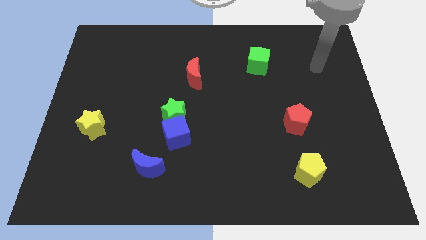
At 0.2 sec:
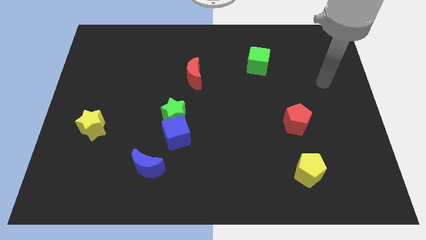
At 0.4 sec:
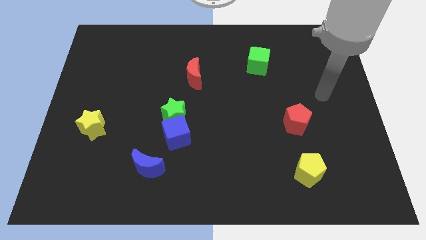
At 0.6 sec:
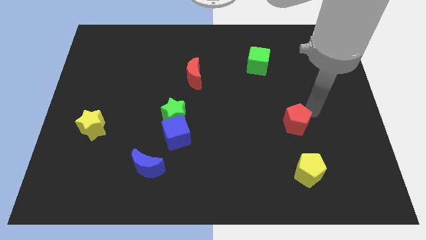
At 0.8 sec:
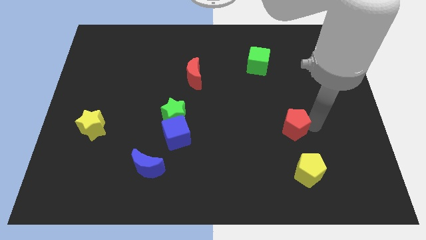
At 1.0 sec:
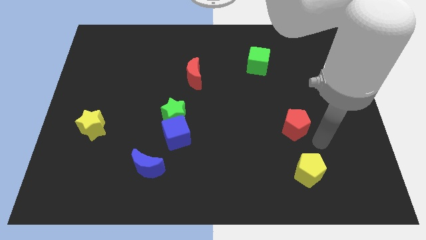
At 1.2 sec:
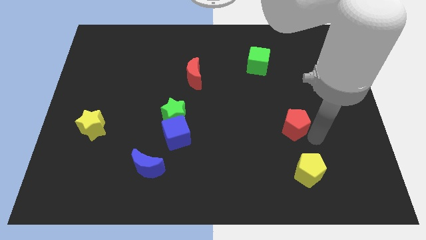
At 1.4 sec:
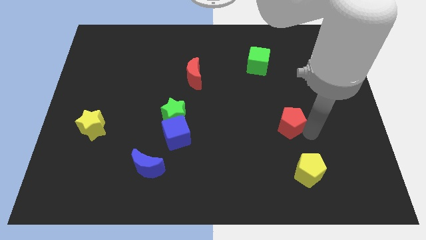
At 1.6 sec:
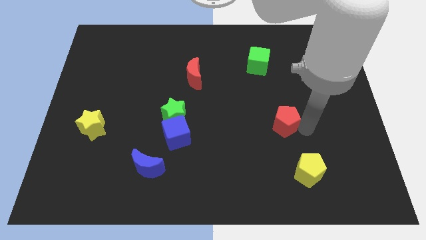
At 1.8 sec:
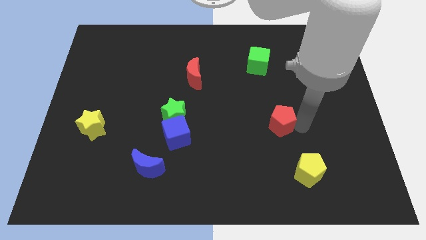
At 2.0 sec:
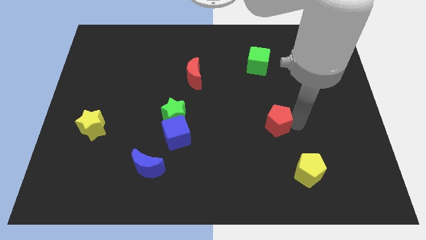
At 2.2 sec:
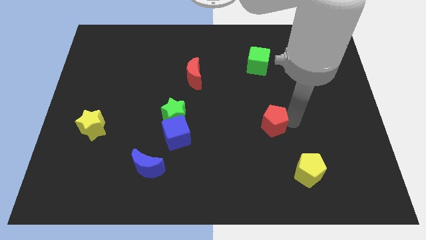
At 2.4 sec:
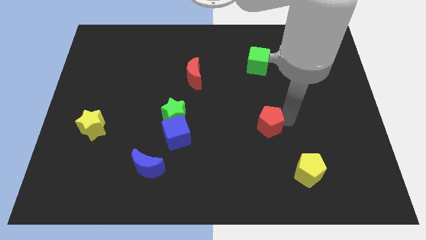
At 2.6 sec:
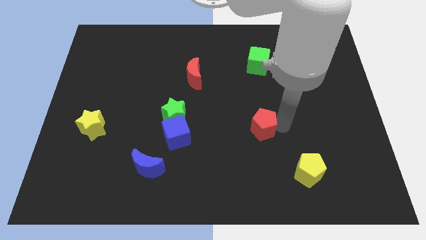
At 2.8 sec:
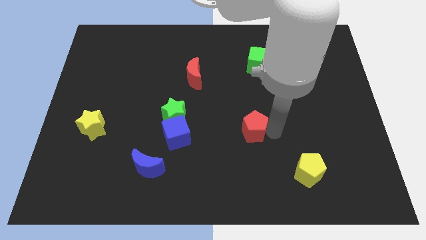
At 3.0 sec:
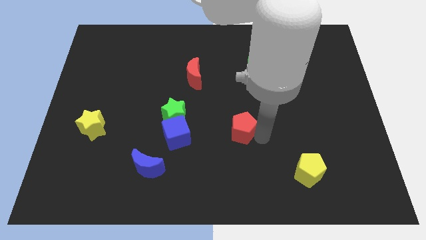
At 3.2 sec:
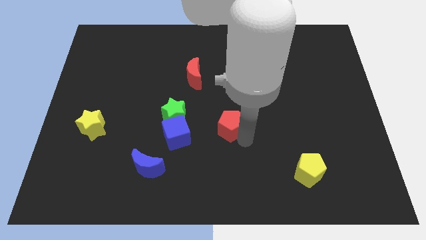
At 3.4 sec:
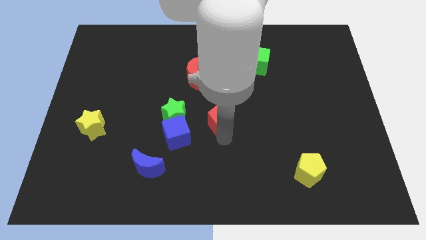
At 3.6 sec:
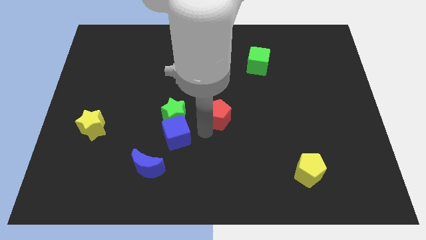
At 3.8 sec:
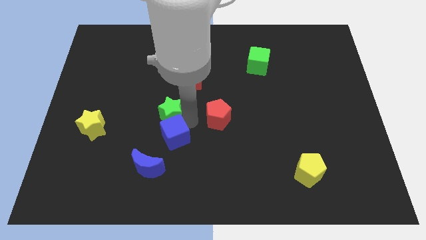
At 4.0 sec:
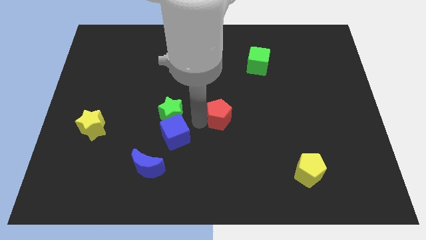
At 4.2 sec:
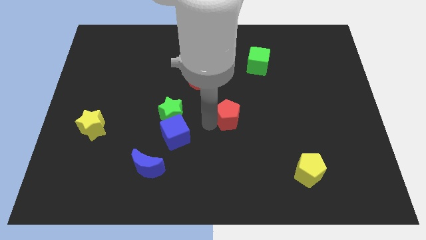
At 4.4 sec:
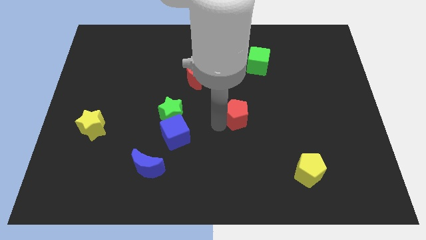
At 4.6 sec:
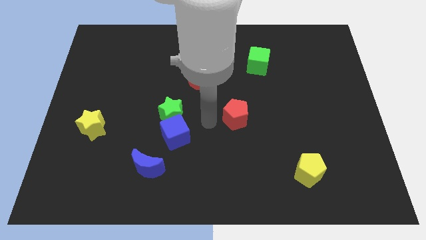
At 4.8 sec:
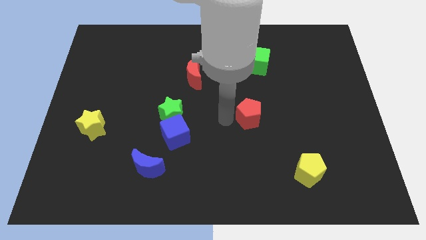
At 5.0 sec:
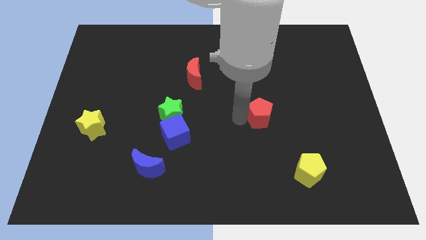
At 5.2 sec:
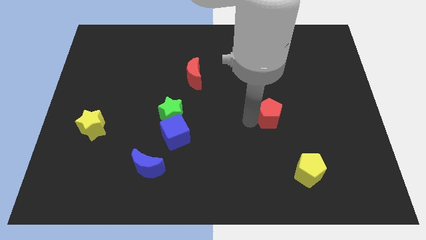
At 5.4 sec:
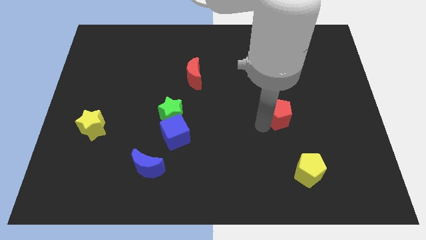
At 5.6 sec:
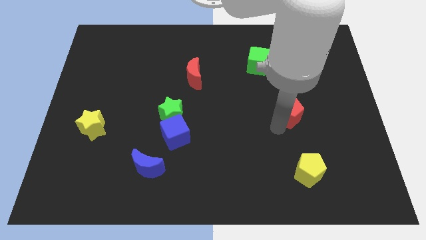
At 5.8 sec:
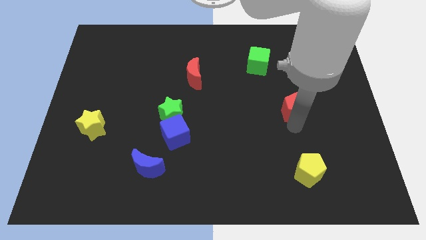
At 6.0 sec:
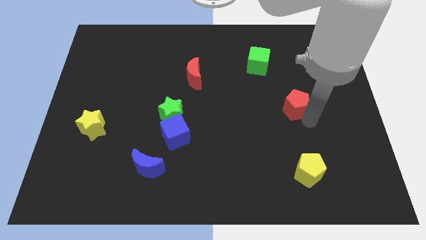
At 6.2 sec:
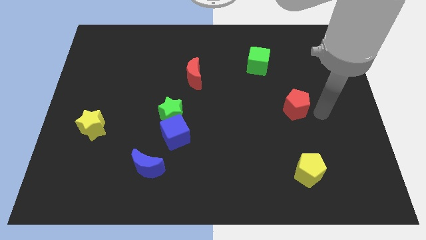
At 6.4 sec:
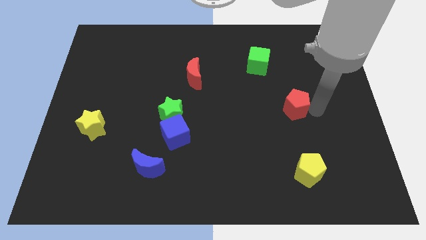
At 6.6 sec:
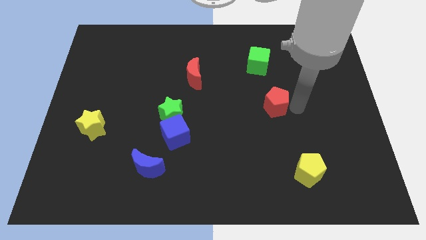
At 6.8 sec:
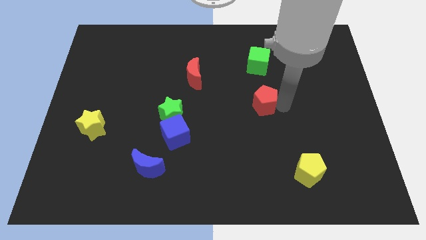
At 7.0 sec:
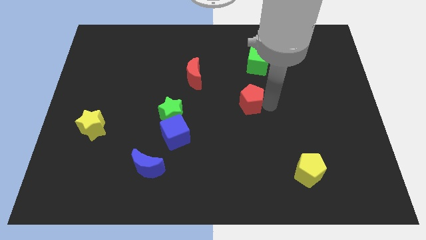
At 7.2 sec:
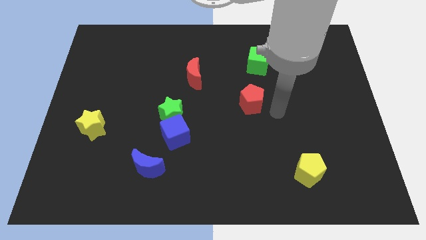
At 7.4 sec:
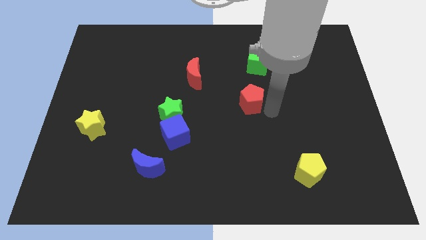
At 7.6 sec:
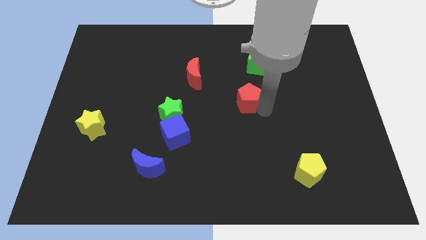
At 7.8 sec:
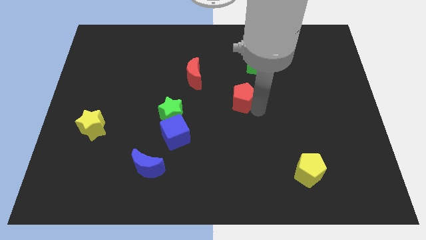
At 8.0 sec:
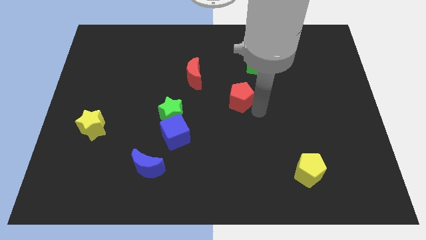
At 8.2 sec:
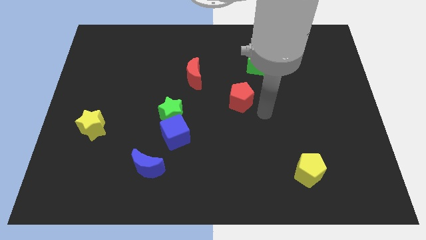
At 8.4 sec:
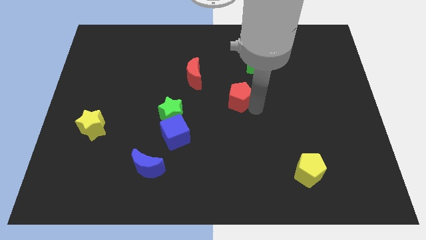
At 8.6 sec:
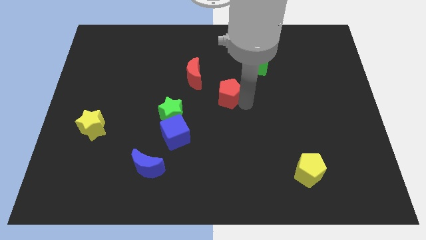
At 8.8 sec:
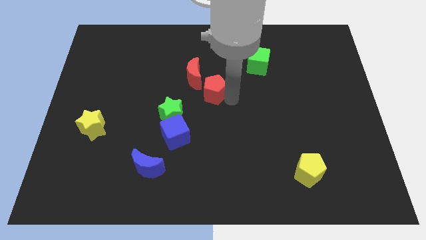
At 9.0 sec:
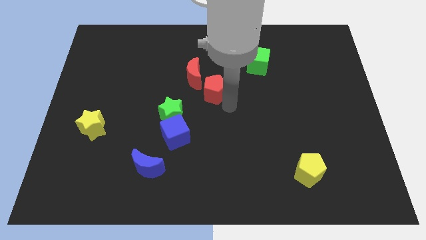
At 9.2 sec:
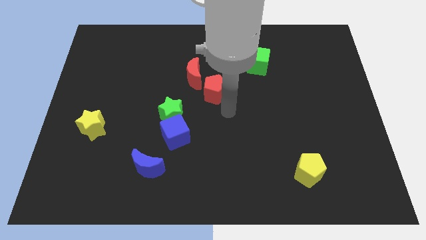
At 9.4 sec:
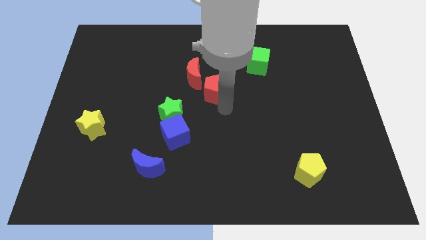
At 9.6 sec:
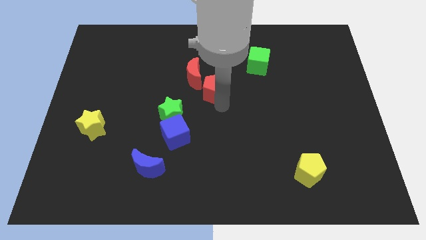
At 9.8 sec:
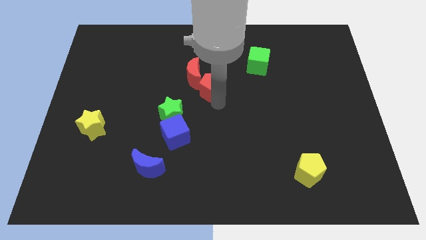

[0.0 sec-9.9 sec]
move the red pentagon towards the red moon

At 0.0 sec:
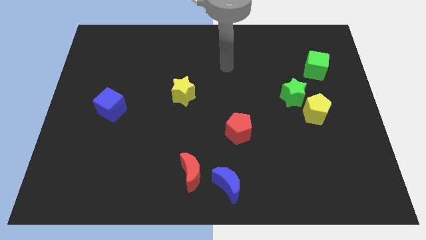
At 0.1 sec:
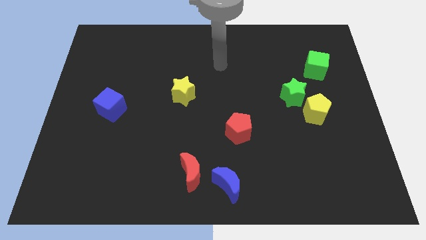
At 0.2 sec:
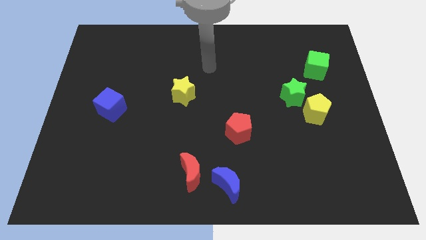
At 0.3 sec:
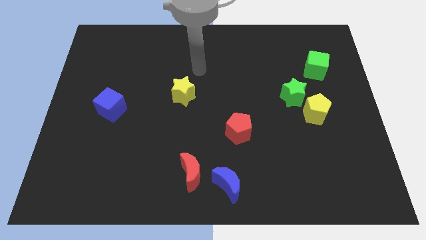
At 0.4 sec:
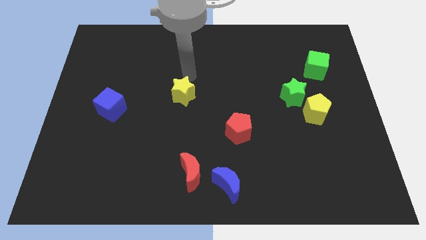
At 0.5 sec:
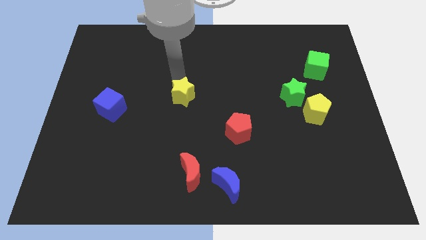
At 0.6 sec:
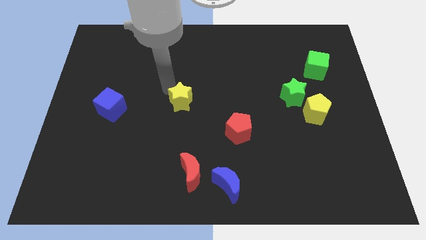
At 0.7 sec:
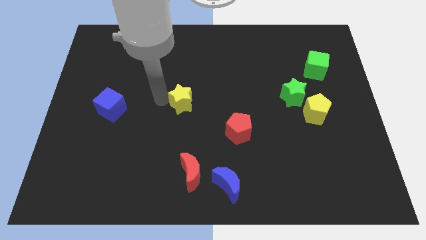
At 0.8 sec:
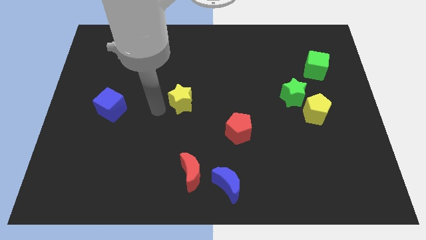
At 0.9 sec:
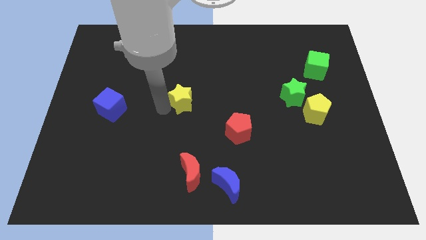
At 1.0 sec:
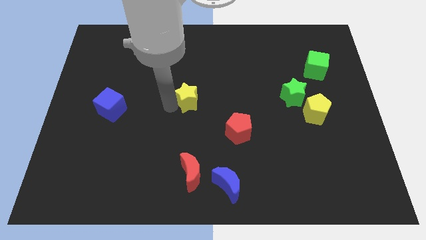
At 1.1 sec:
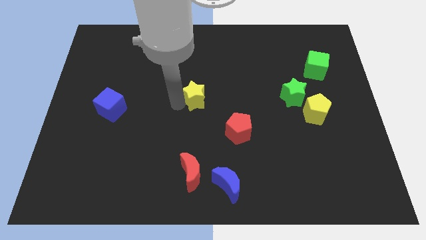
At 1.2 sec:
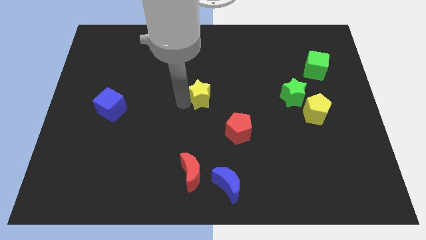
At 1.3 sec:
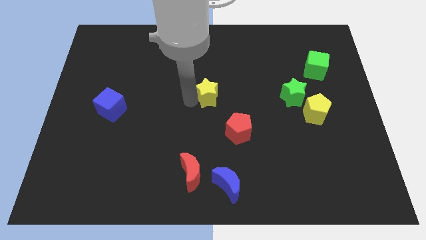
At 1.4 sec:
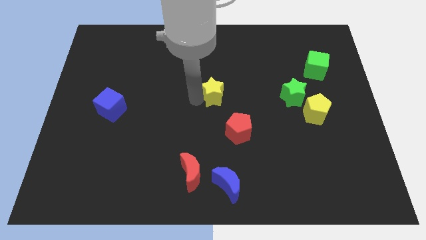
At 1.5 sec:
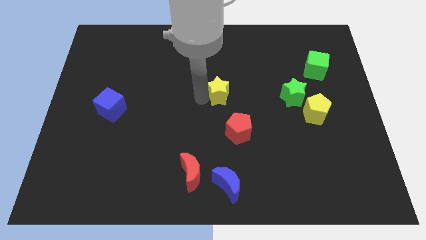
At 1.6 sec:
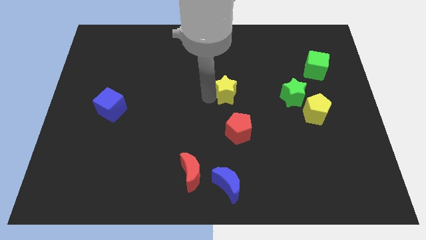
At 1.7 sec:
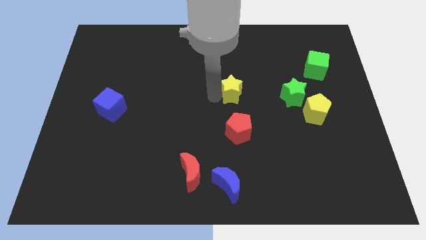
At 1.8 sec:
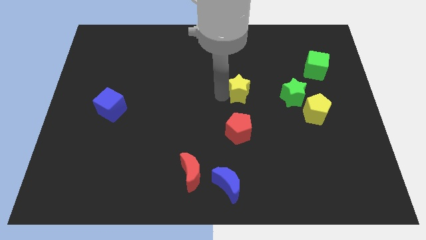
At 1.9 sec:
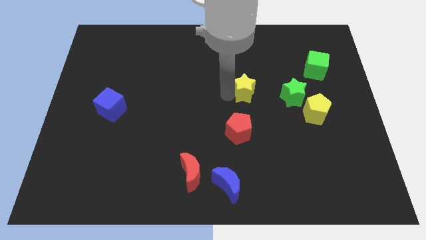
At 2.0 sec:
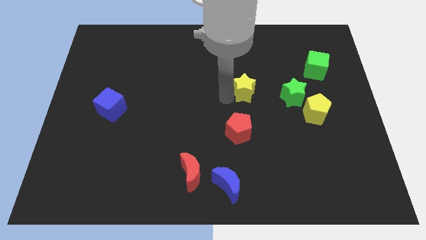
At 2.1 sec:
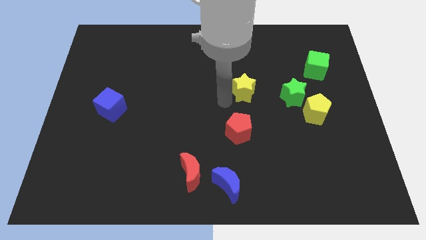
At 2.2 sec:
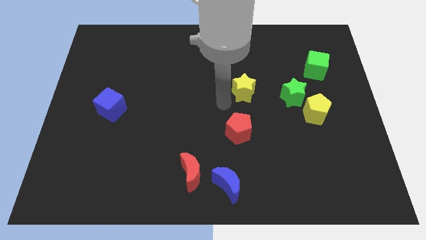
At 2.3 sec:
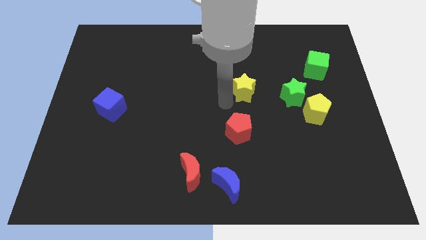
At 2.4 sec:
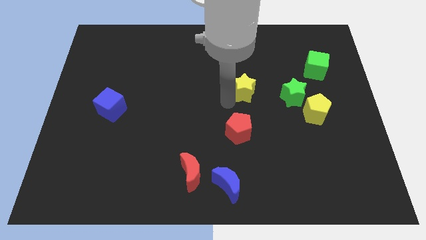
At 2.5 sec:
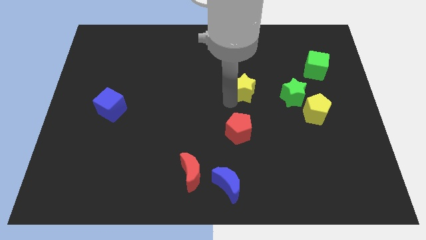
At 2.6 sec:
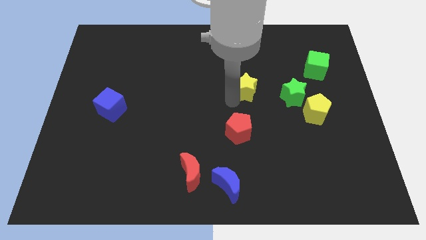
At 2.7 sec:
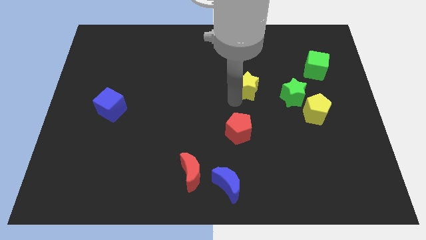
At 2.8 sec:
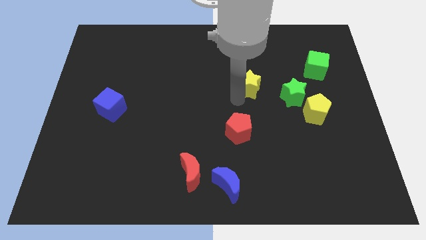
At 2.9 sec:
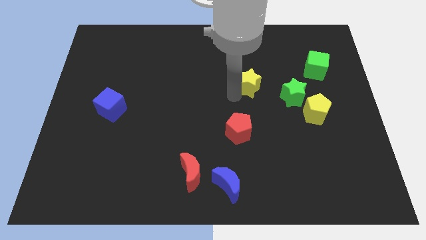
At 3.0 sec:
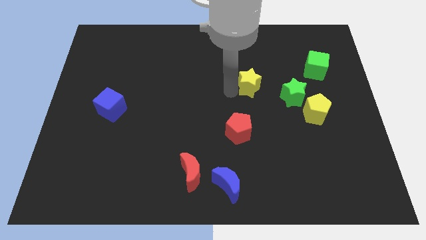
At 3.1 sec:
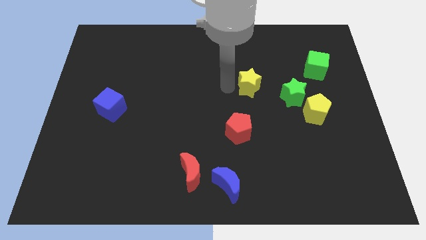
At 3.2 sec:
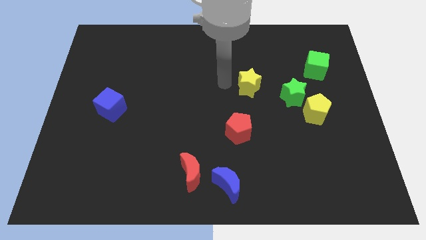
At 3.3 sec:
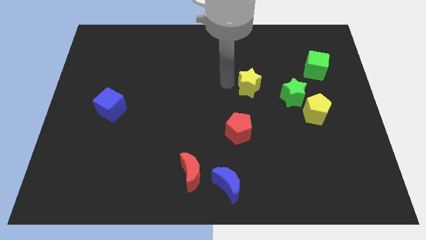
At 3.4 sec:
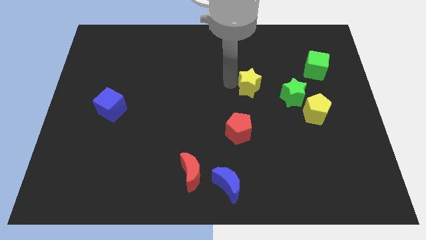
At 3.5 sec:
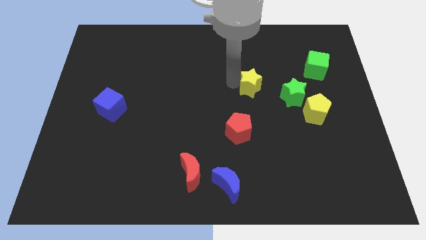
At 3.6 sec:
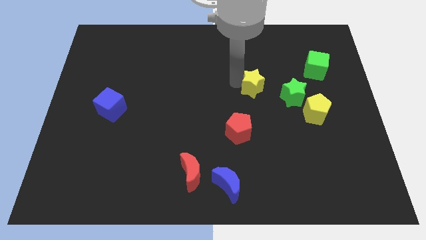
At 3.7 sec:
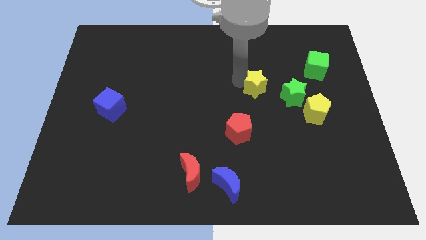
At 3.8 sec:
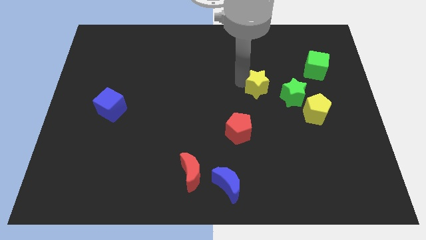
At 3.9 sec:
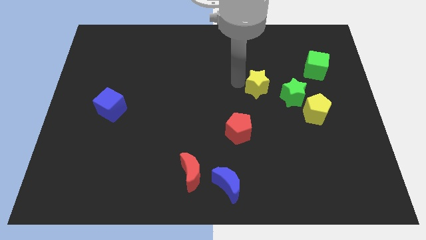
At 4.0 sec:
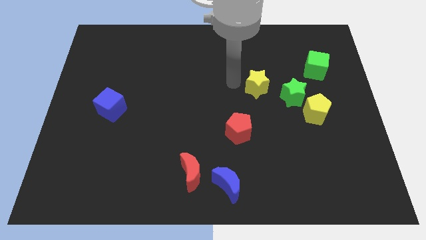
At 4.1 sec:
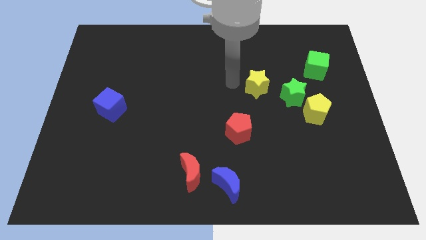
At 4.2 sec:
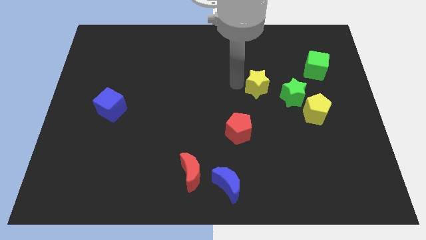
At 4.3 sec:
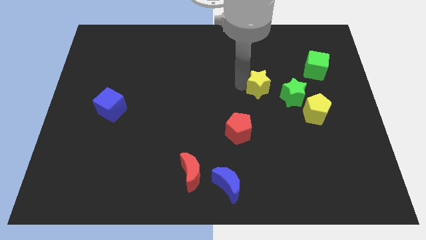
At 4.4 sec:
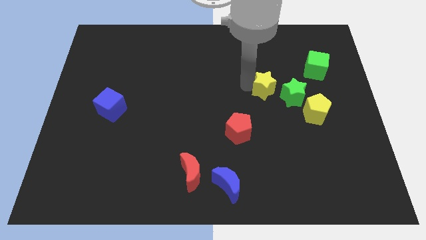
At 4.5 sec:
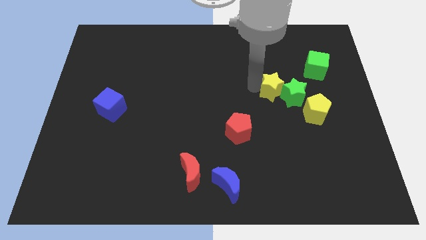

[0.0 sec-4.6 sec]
push the yellow star towards the green star
